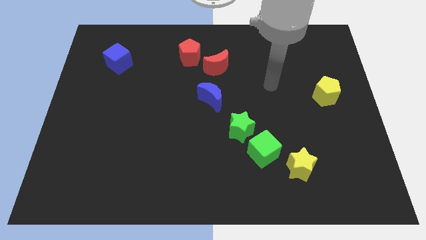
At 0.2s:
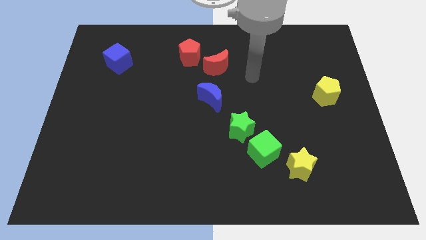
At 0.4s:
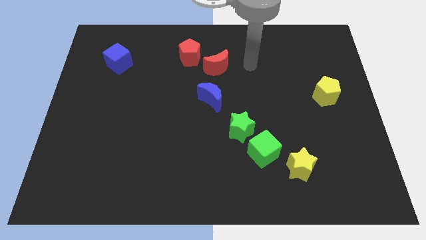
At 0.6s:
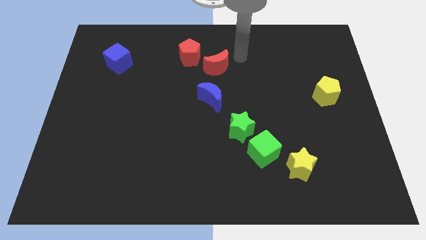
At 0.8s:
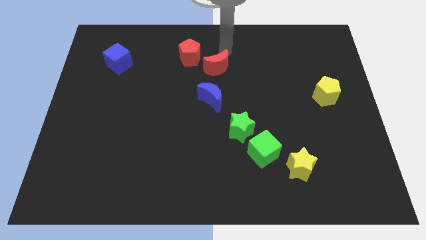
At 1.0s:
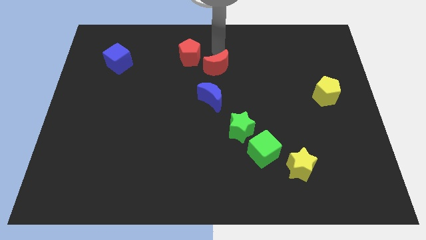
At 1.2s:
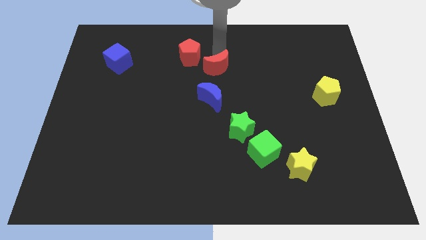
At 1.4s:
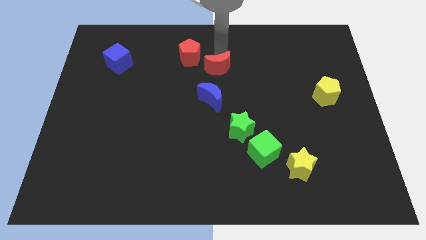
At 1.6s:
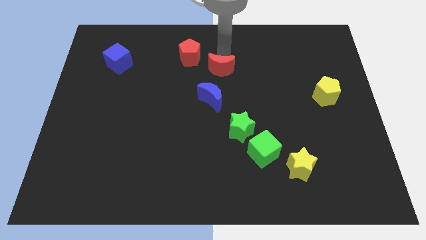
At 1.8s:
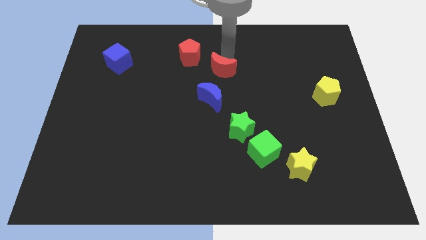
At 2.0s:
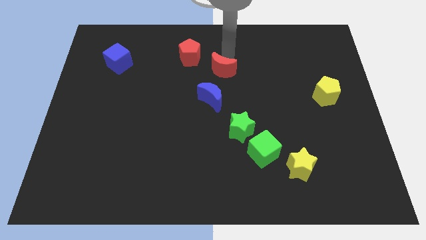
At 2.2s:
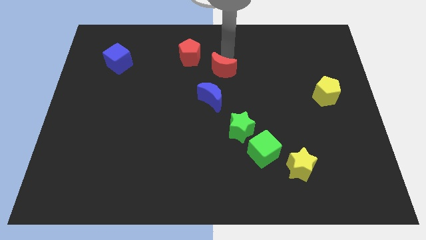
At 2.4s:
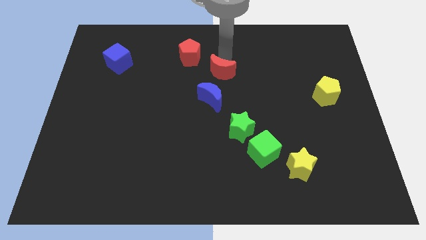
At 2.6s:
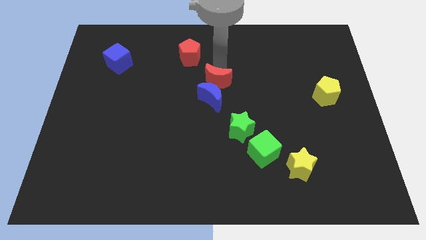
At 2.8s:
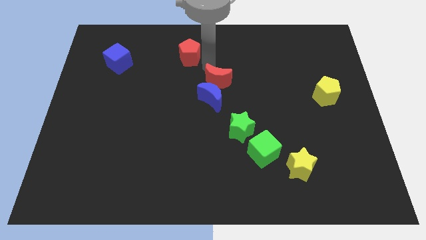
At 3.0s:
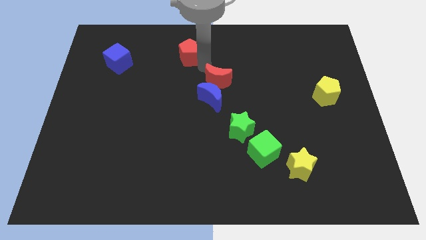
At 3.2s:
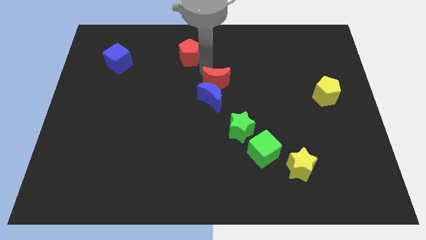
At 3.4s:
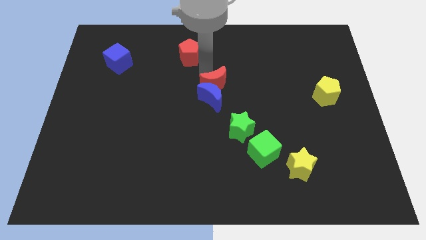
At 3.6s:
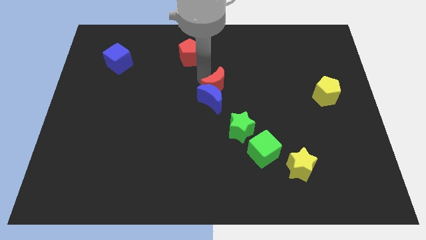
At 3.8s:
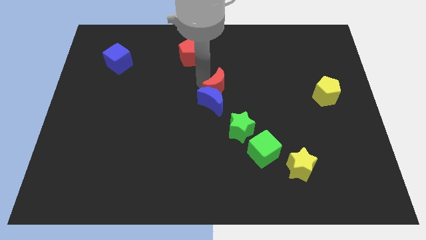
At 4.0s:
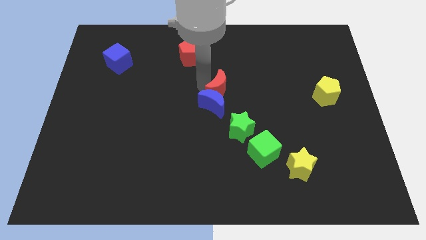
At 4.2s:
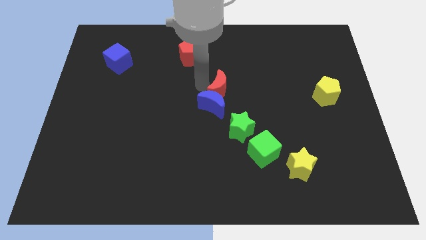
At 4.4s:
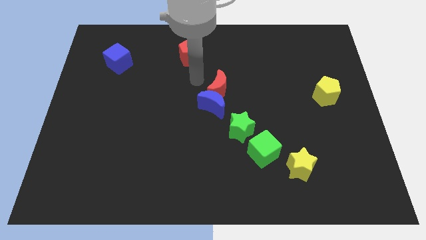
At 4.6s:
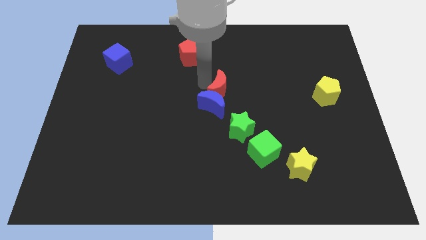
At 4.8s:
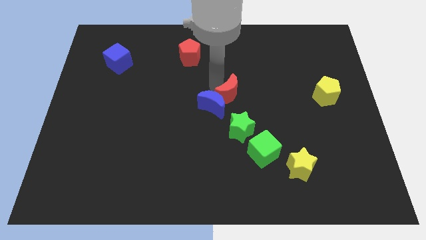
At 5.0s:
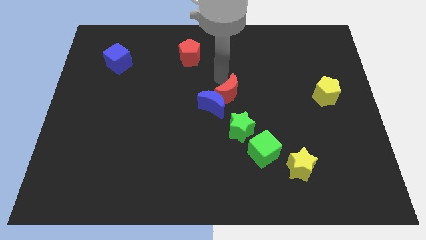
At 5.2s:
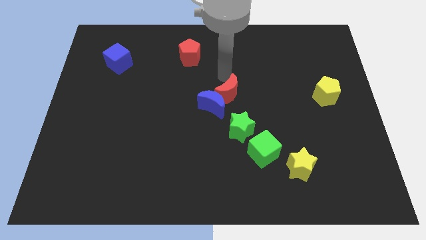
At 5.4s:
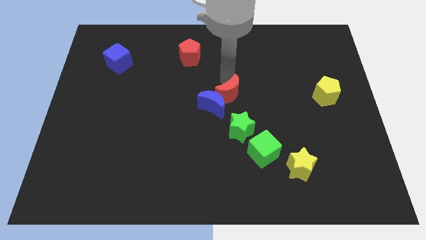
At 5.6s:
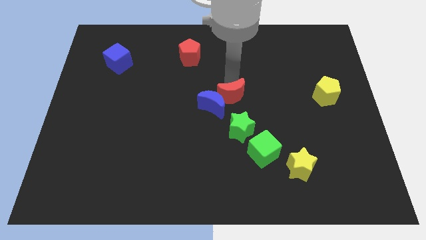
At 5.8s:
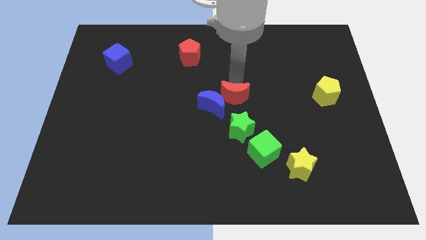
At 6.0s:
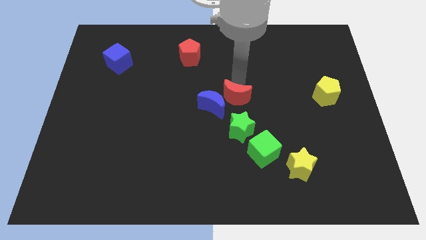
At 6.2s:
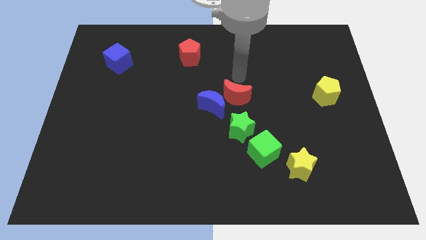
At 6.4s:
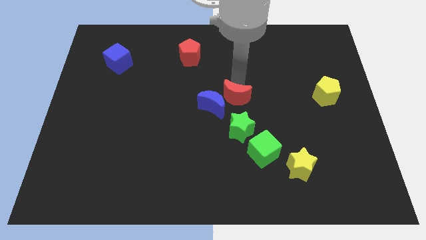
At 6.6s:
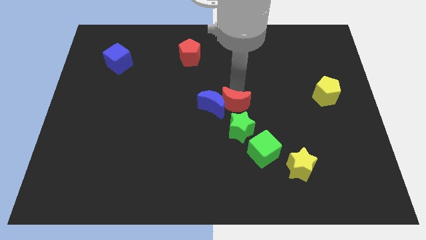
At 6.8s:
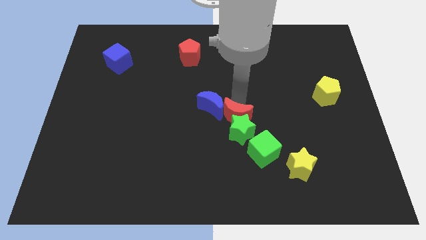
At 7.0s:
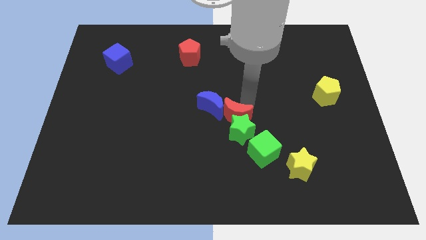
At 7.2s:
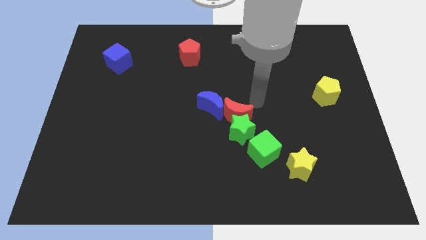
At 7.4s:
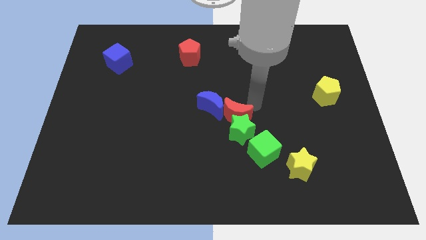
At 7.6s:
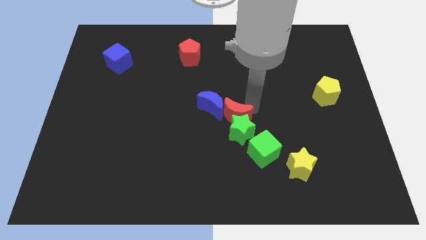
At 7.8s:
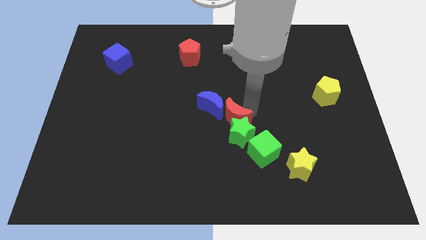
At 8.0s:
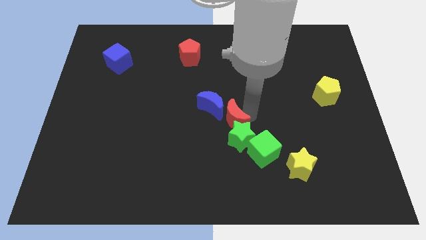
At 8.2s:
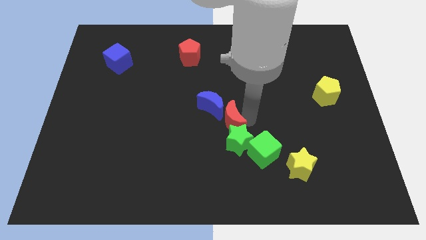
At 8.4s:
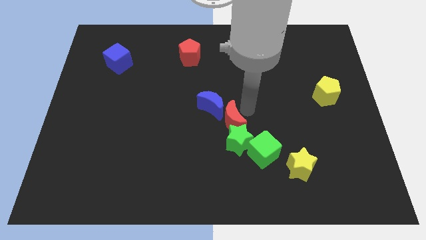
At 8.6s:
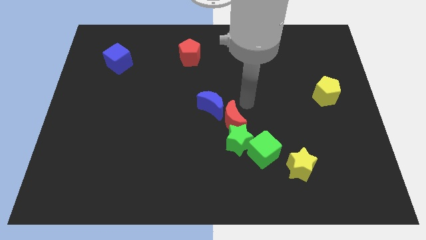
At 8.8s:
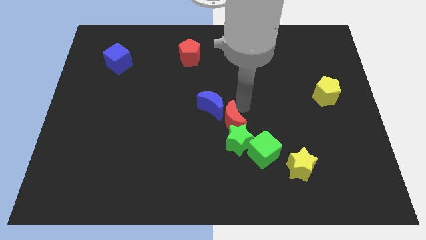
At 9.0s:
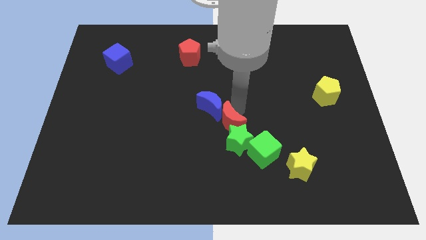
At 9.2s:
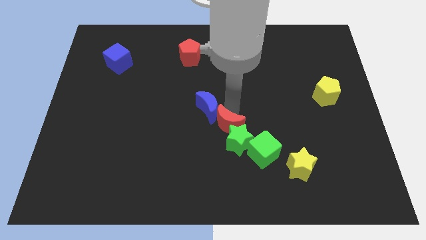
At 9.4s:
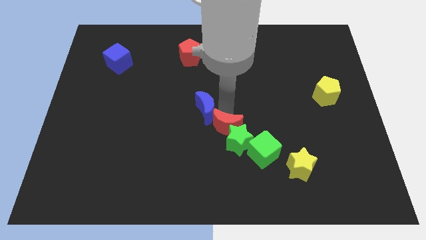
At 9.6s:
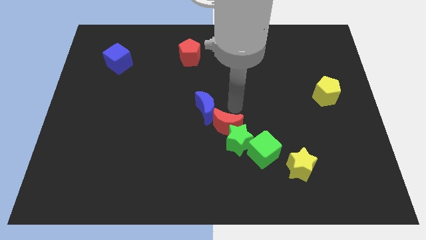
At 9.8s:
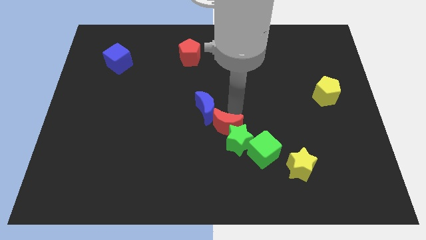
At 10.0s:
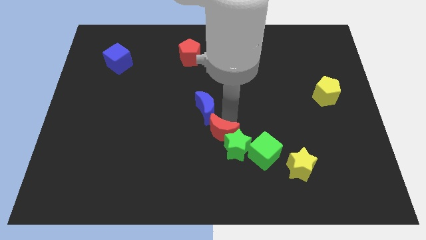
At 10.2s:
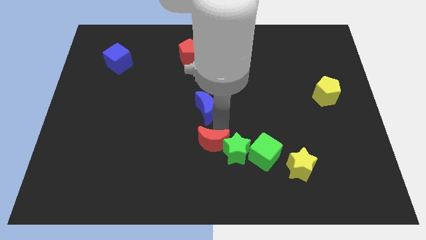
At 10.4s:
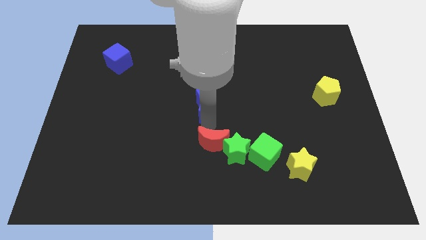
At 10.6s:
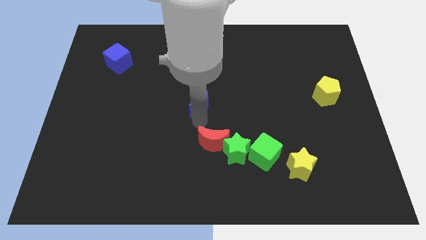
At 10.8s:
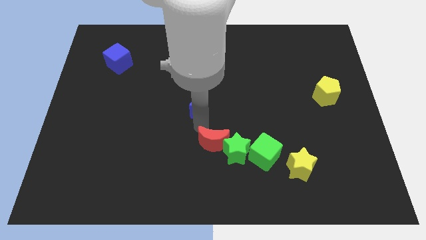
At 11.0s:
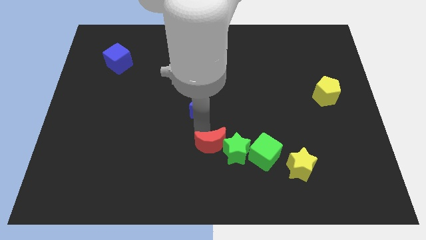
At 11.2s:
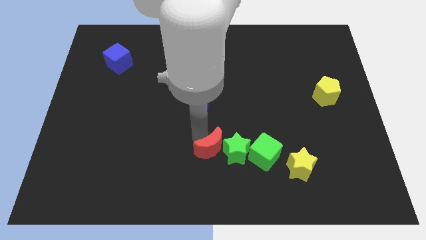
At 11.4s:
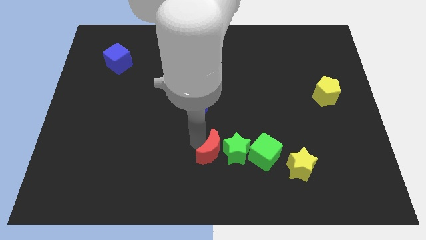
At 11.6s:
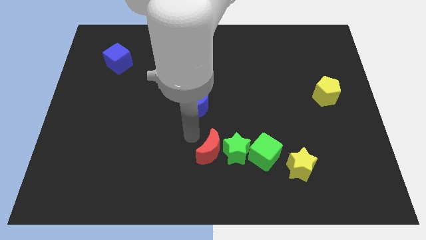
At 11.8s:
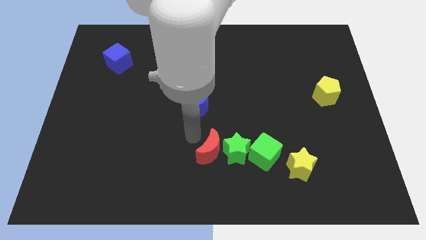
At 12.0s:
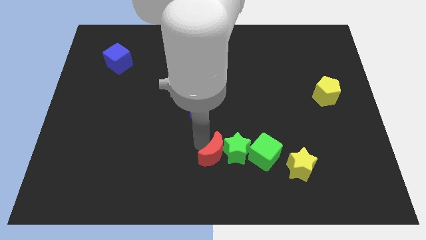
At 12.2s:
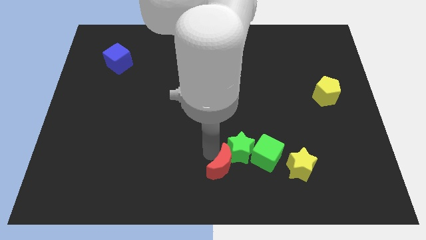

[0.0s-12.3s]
push the red moon to the bottom left side of the green cube

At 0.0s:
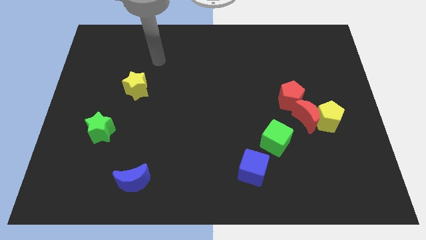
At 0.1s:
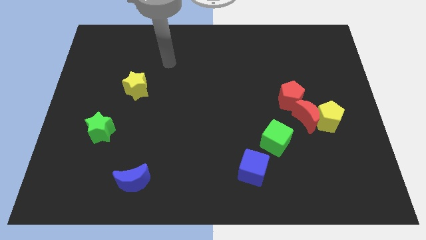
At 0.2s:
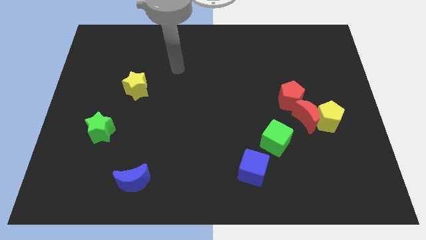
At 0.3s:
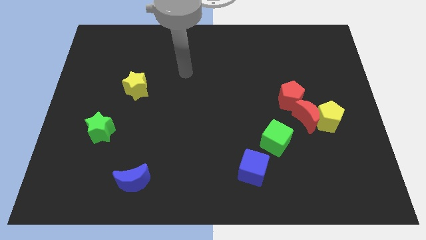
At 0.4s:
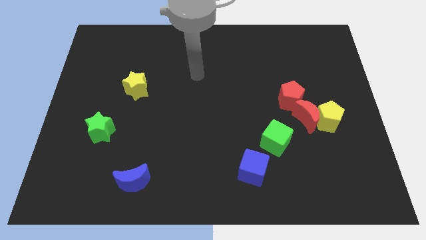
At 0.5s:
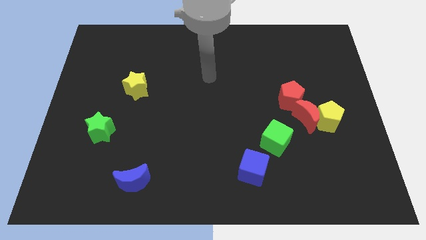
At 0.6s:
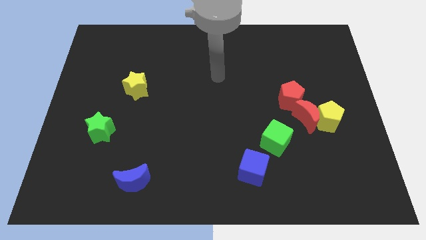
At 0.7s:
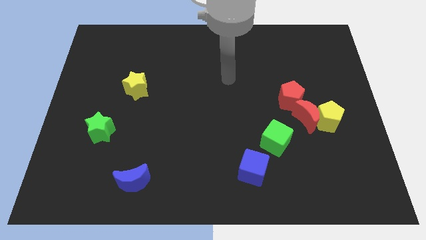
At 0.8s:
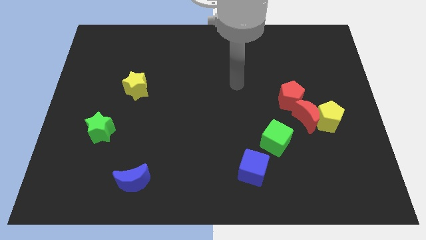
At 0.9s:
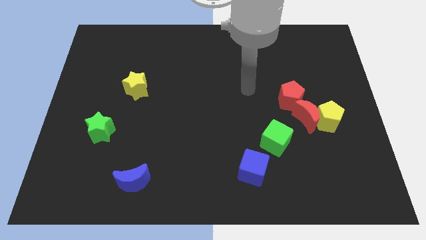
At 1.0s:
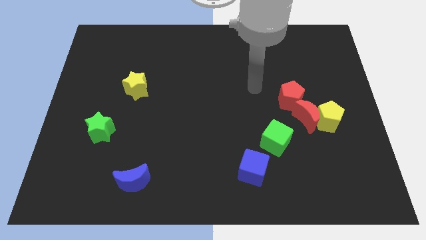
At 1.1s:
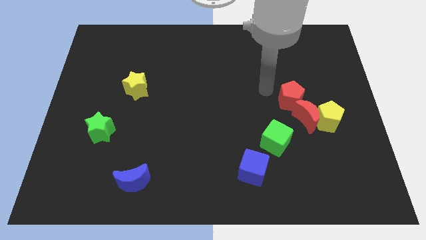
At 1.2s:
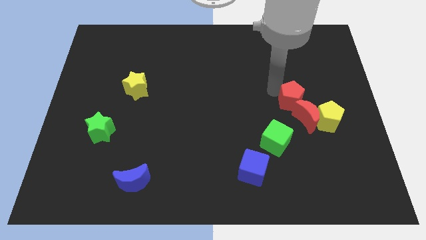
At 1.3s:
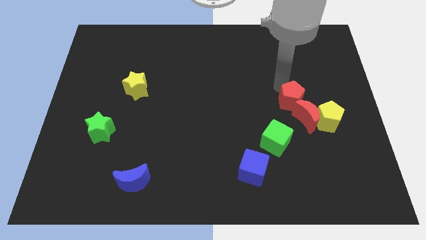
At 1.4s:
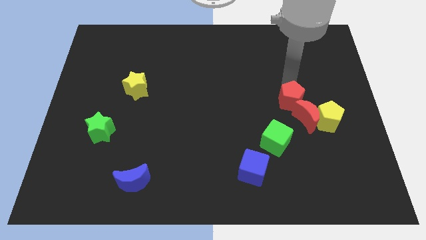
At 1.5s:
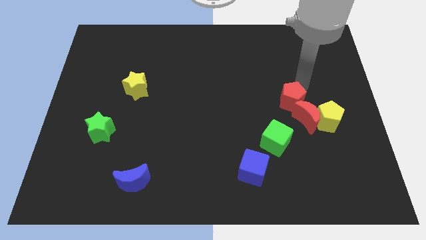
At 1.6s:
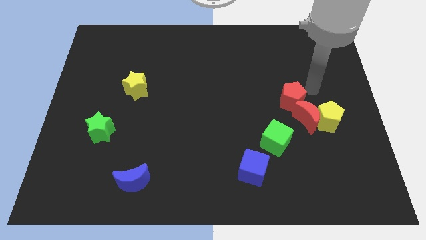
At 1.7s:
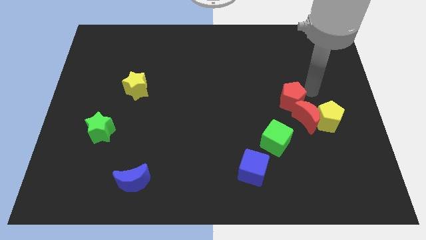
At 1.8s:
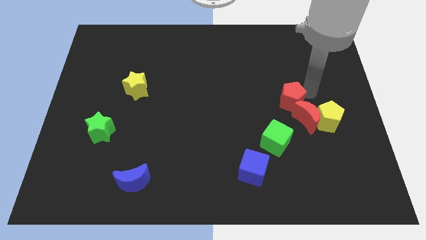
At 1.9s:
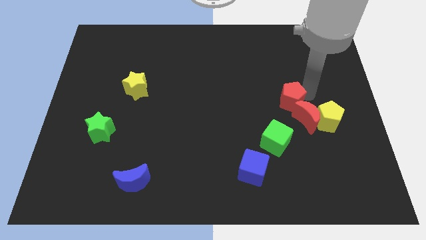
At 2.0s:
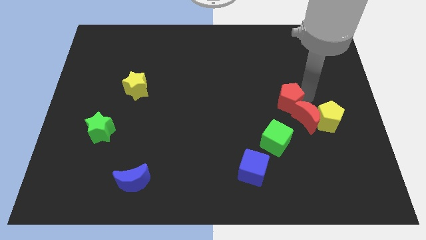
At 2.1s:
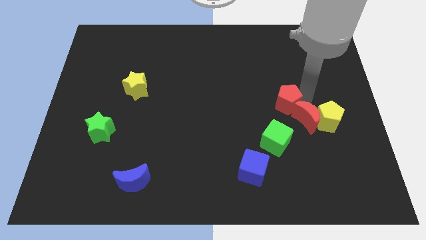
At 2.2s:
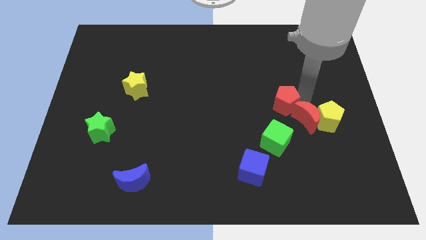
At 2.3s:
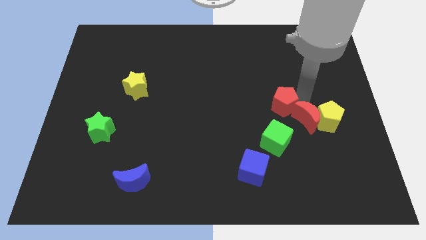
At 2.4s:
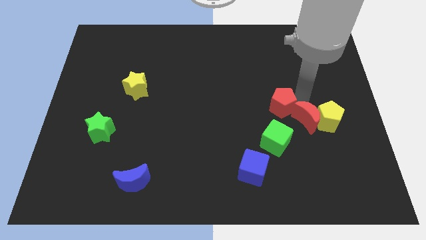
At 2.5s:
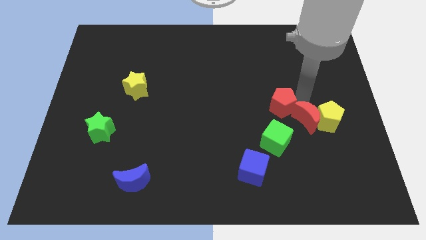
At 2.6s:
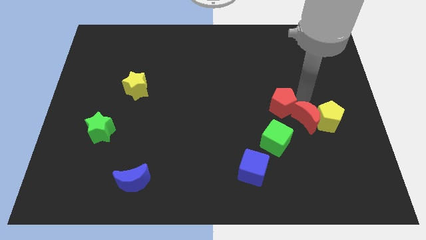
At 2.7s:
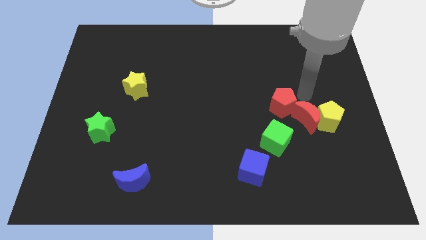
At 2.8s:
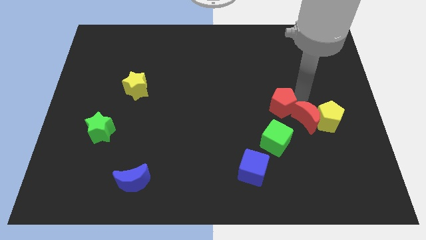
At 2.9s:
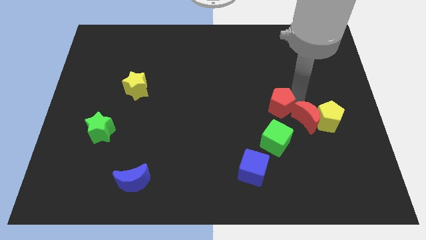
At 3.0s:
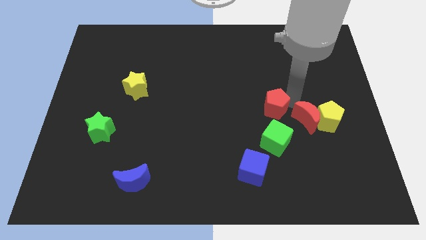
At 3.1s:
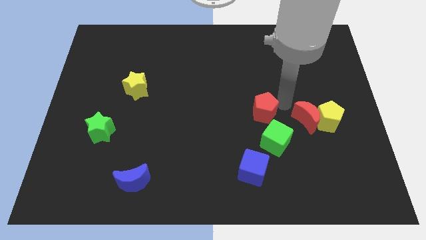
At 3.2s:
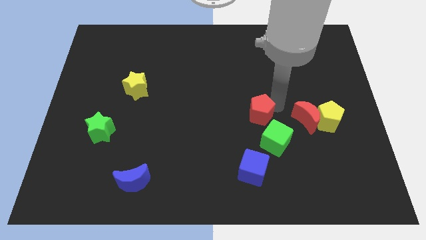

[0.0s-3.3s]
put the red pentagon to the top of the blue cube
